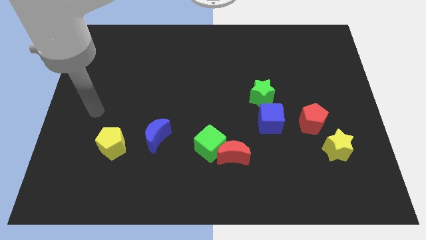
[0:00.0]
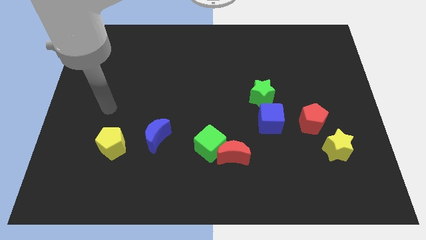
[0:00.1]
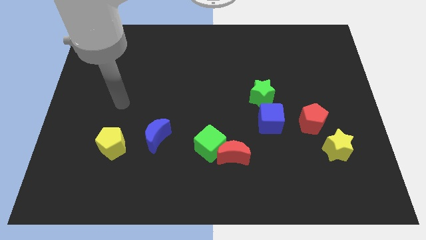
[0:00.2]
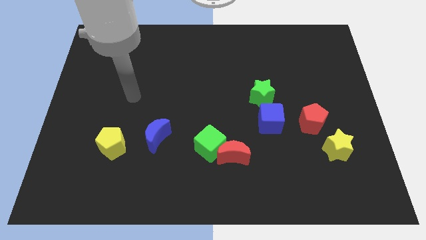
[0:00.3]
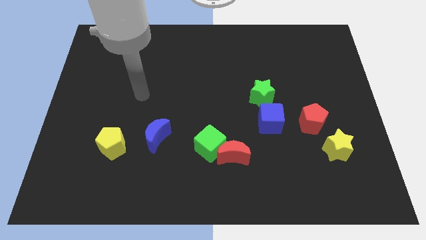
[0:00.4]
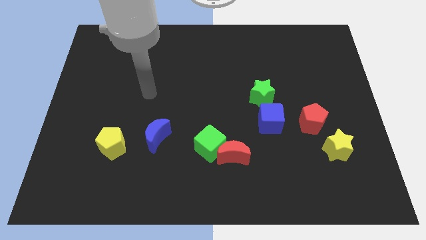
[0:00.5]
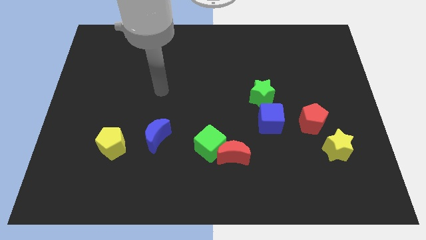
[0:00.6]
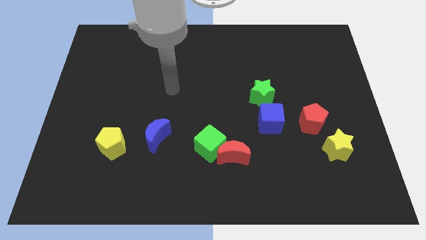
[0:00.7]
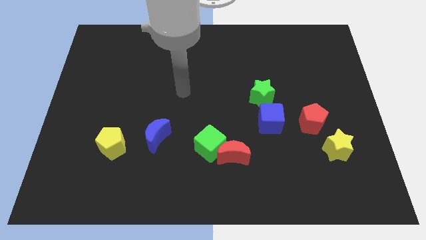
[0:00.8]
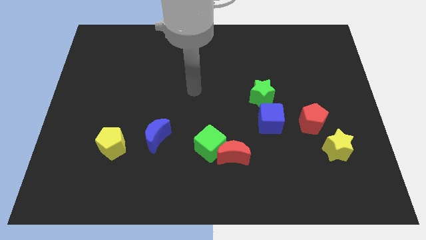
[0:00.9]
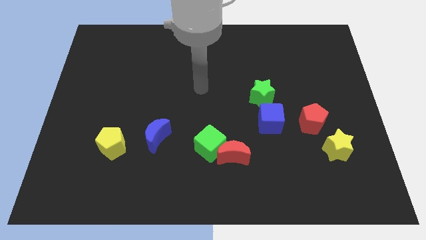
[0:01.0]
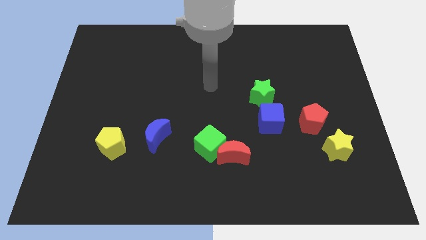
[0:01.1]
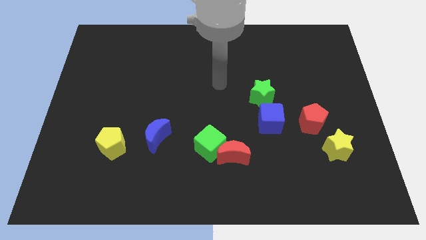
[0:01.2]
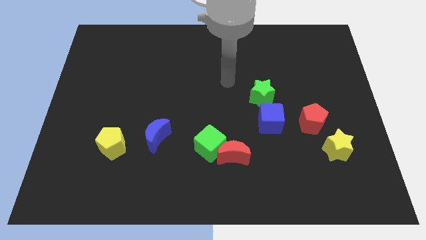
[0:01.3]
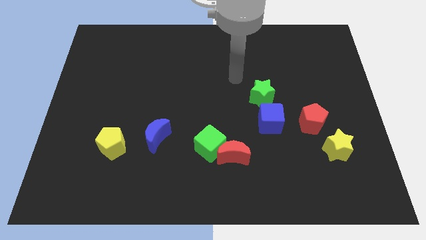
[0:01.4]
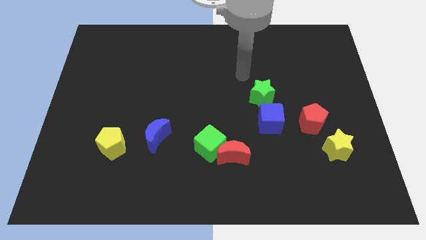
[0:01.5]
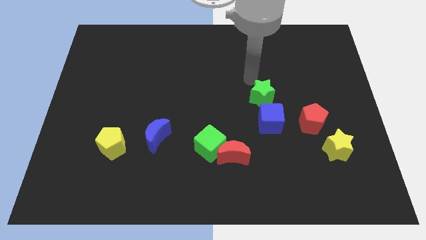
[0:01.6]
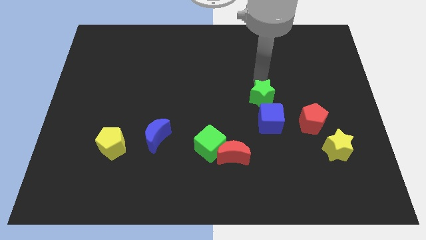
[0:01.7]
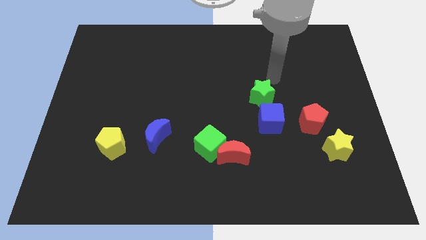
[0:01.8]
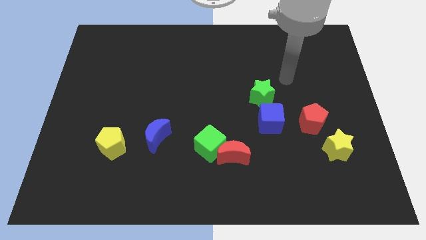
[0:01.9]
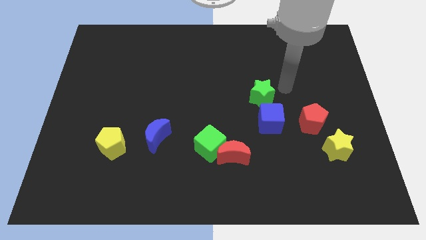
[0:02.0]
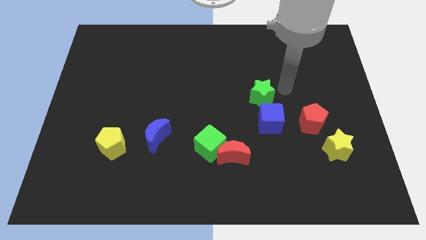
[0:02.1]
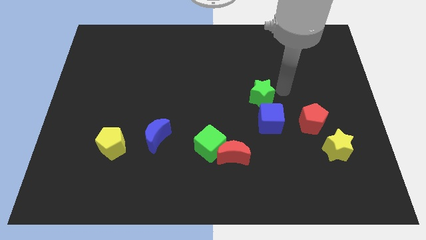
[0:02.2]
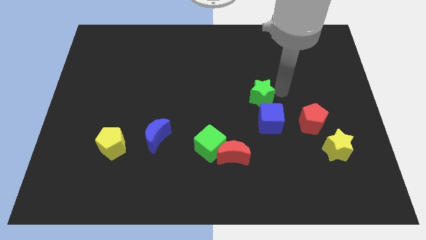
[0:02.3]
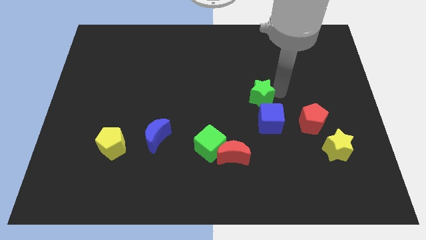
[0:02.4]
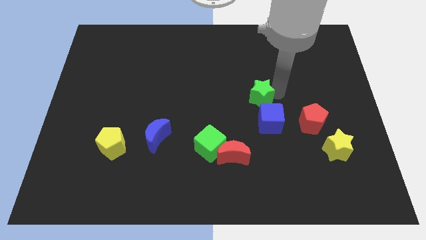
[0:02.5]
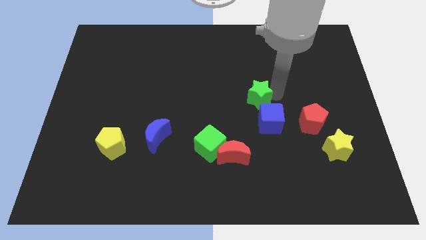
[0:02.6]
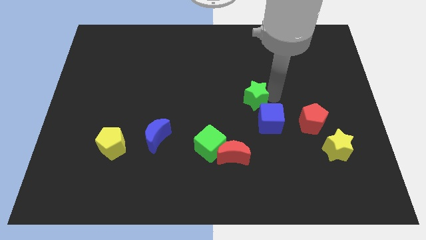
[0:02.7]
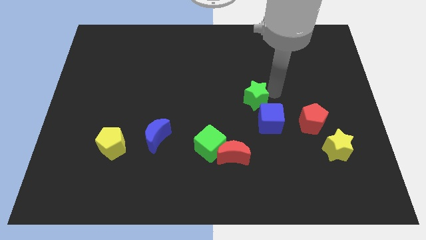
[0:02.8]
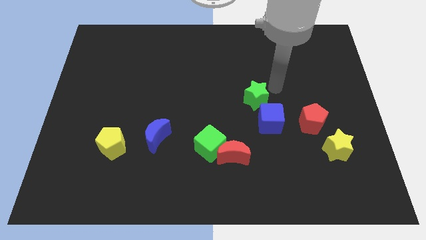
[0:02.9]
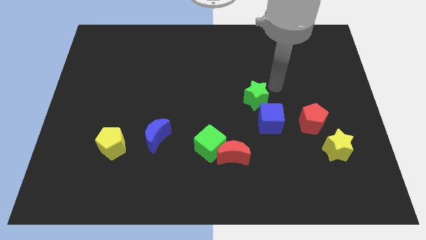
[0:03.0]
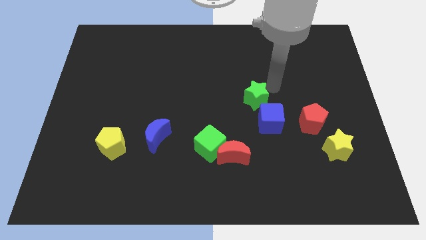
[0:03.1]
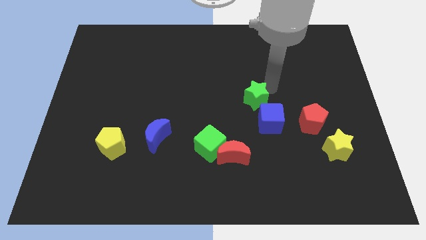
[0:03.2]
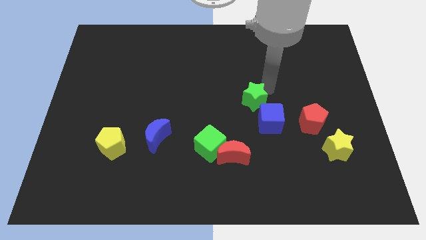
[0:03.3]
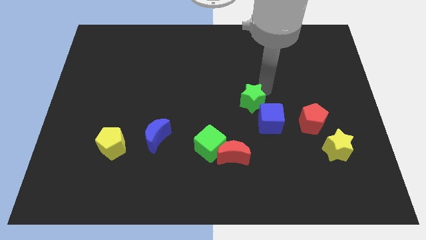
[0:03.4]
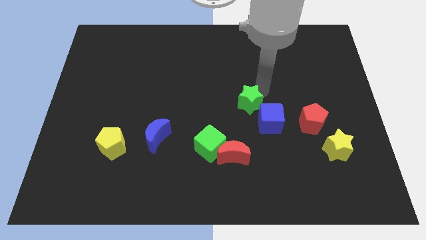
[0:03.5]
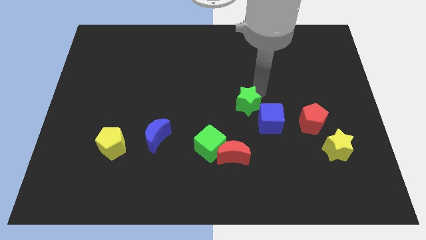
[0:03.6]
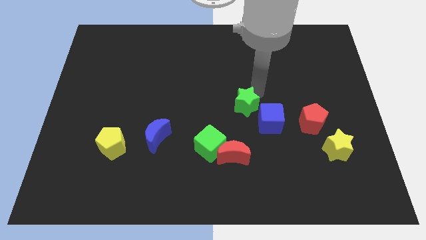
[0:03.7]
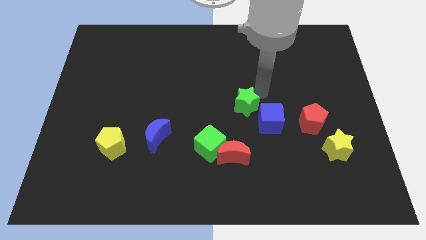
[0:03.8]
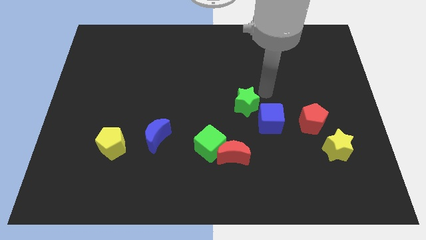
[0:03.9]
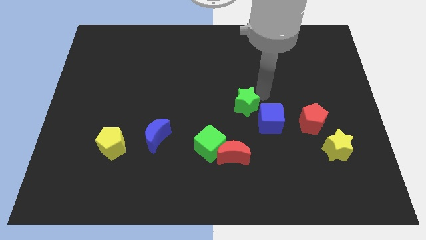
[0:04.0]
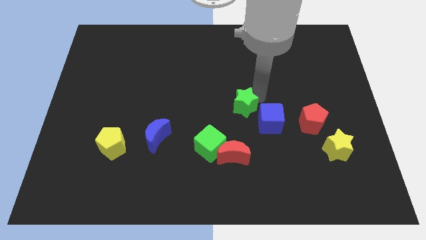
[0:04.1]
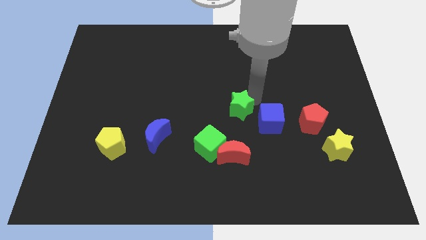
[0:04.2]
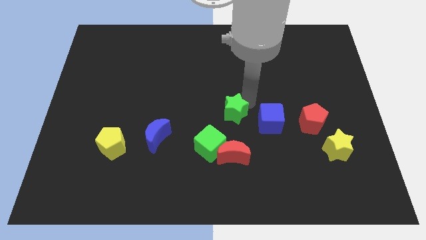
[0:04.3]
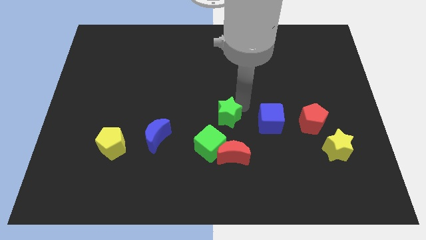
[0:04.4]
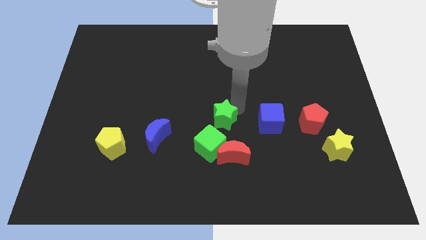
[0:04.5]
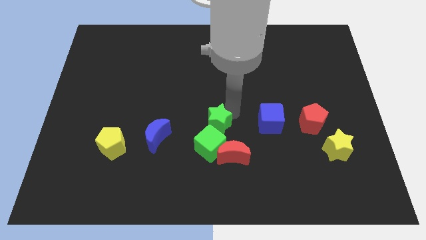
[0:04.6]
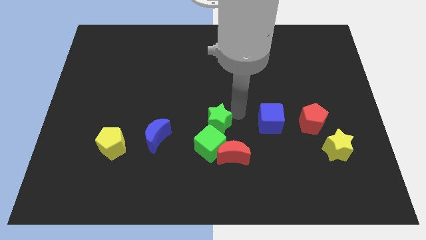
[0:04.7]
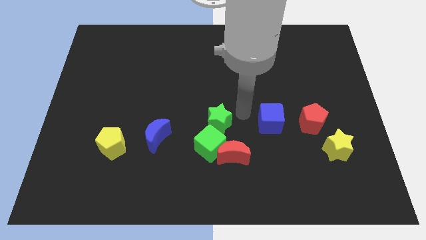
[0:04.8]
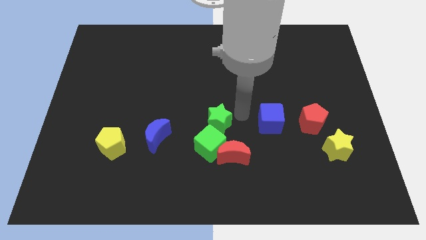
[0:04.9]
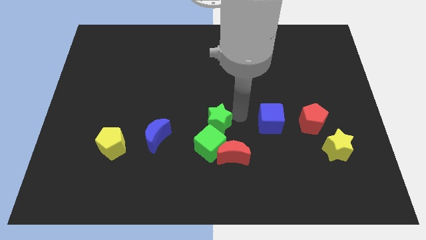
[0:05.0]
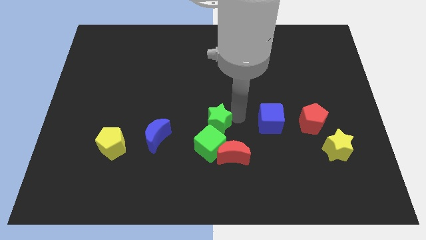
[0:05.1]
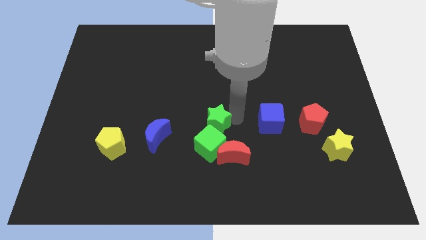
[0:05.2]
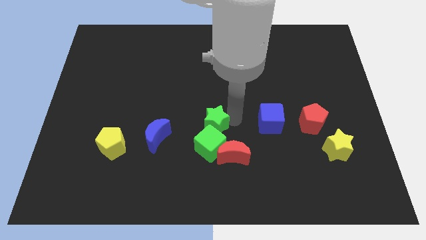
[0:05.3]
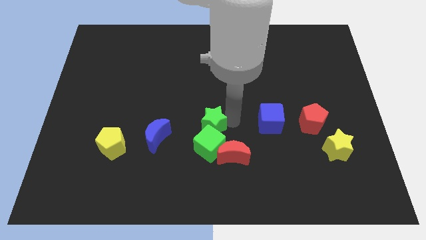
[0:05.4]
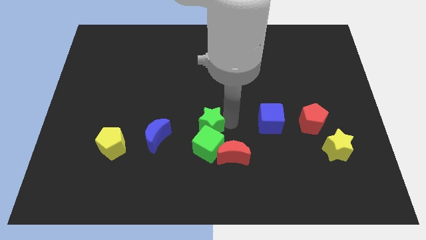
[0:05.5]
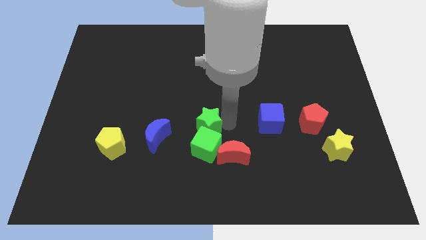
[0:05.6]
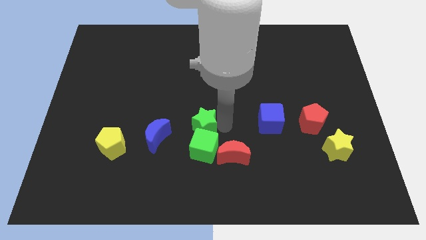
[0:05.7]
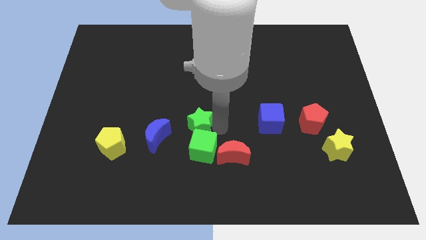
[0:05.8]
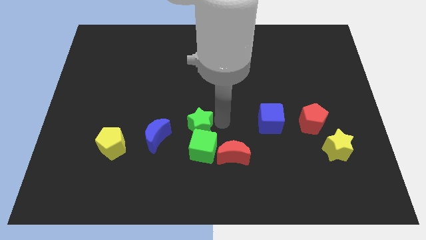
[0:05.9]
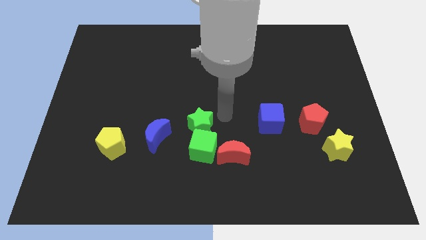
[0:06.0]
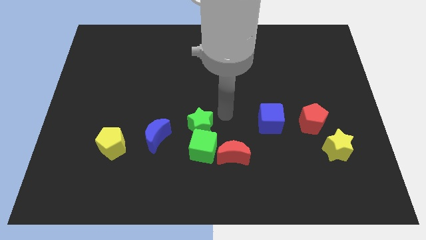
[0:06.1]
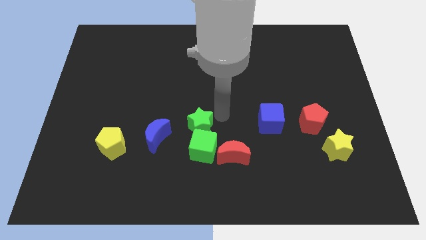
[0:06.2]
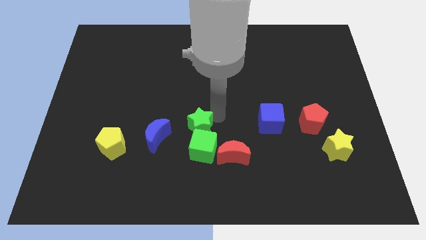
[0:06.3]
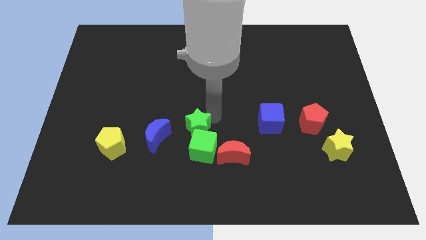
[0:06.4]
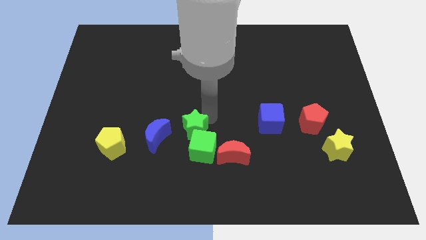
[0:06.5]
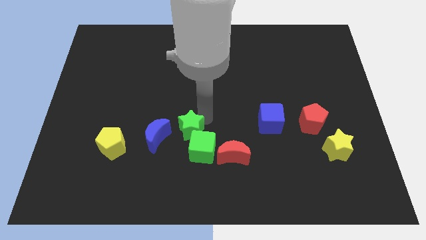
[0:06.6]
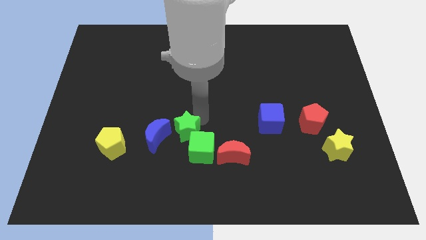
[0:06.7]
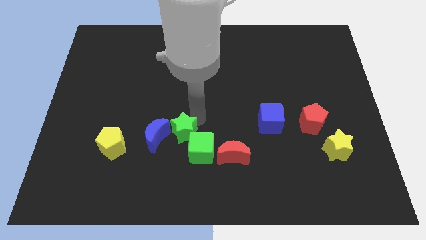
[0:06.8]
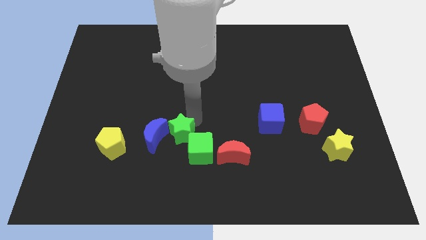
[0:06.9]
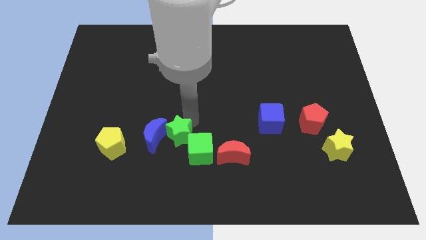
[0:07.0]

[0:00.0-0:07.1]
put the green star just right of the yellow pentagon
